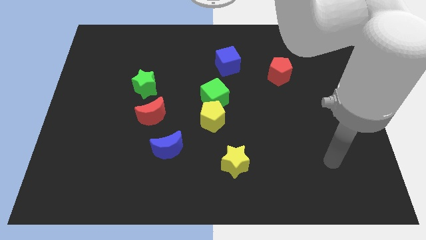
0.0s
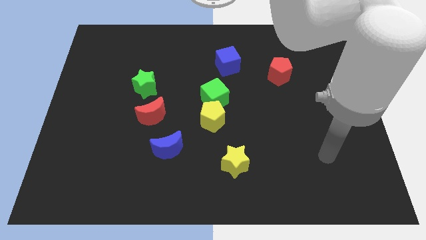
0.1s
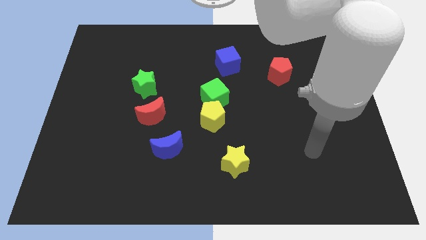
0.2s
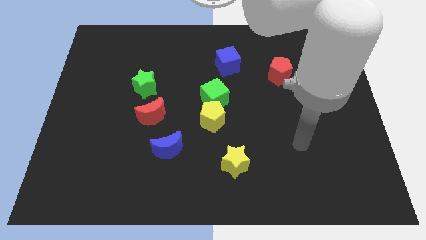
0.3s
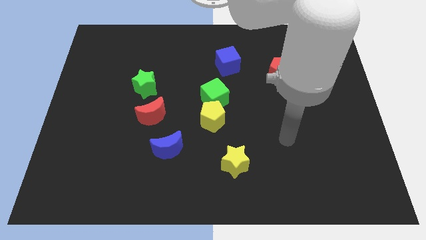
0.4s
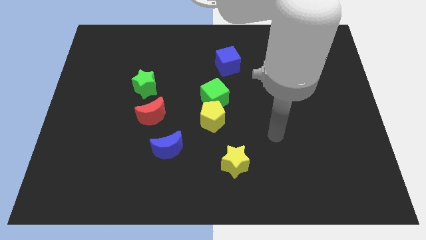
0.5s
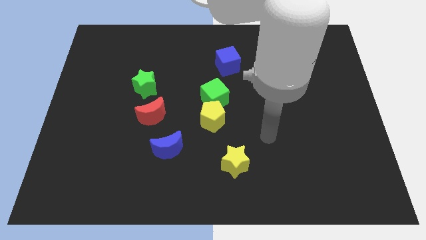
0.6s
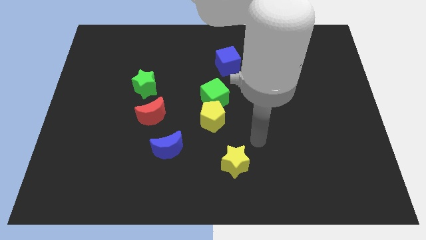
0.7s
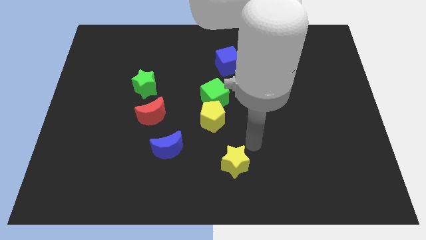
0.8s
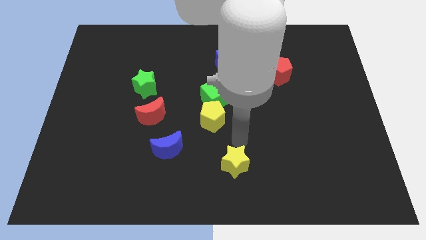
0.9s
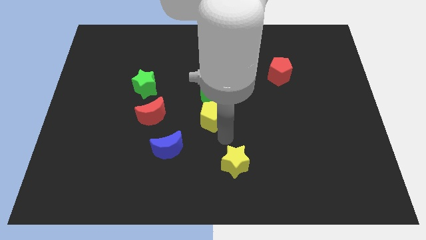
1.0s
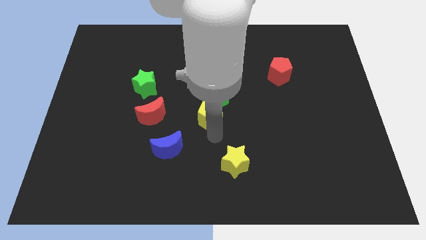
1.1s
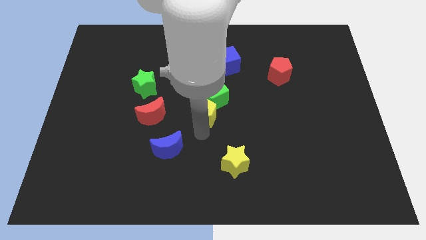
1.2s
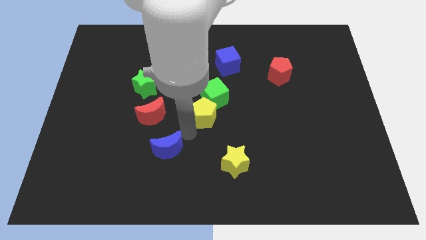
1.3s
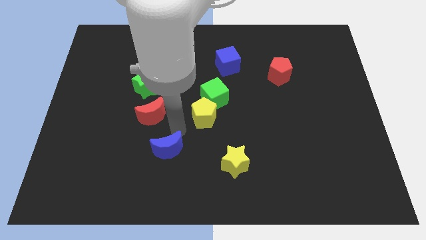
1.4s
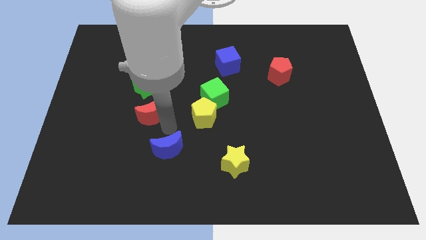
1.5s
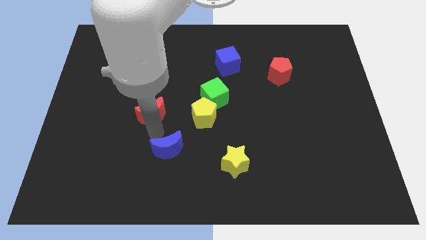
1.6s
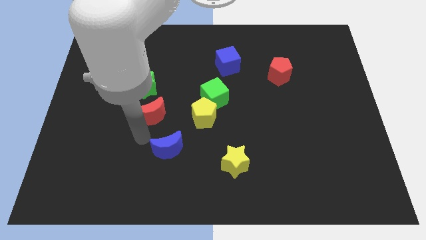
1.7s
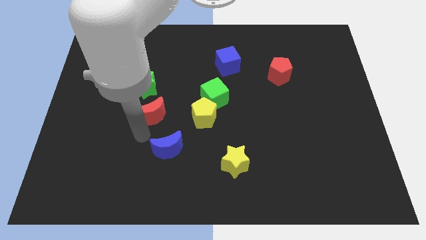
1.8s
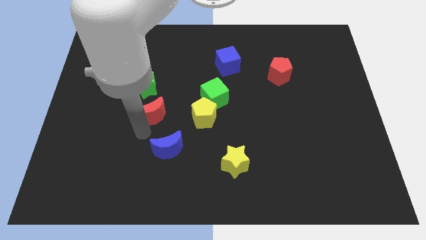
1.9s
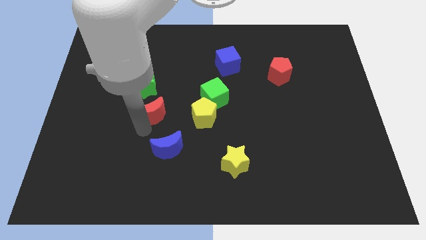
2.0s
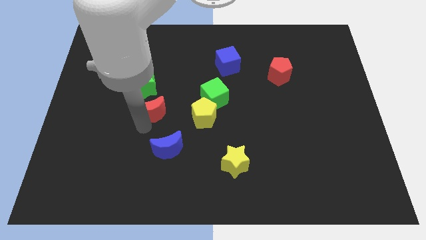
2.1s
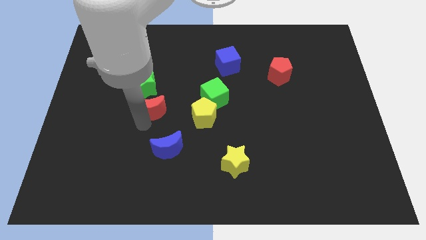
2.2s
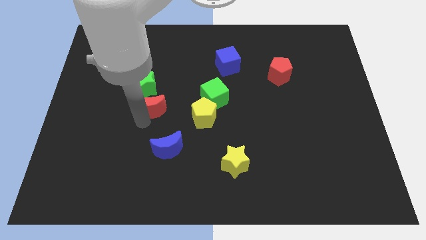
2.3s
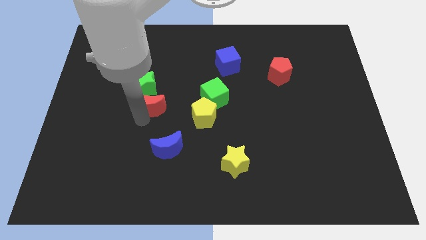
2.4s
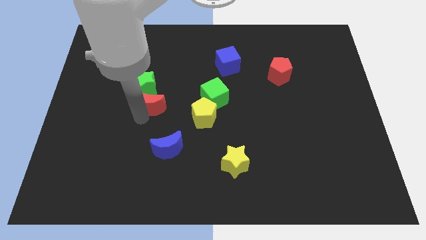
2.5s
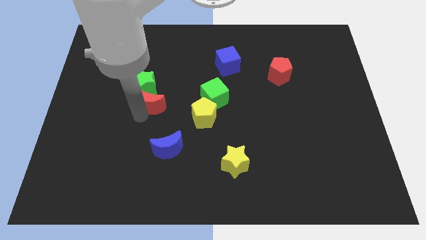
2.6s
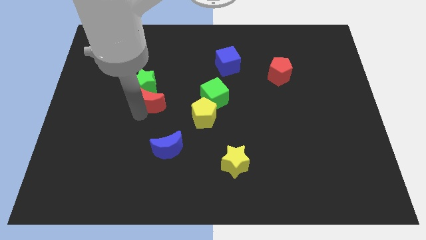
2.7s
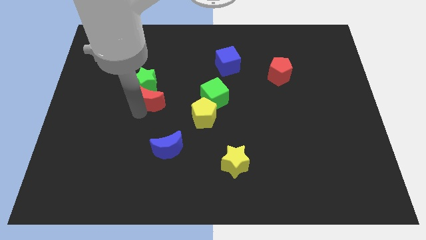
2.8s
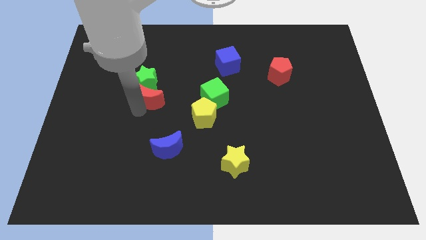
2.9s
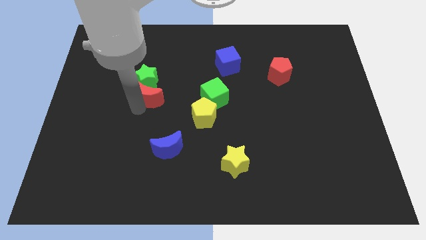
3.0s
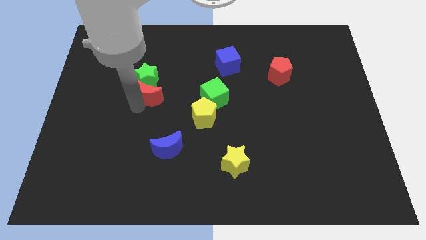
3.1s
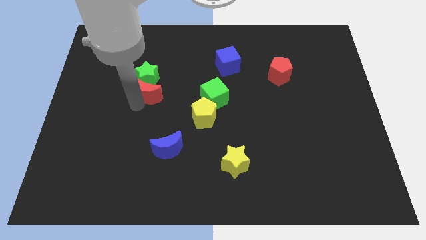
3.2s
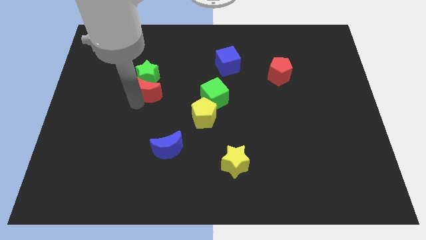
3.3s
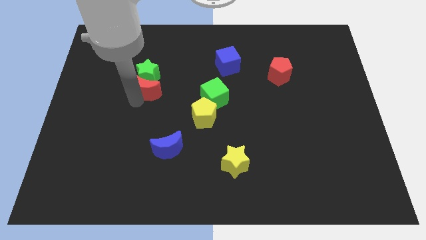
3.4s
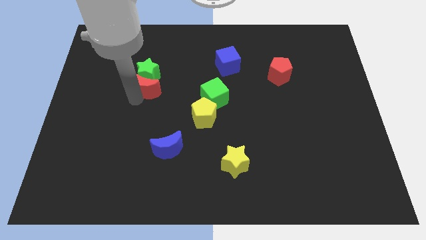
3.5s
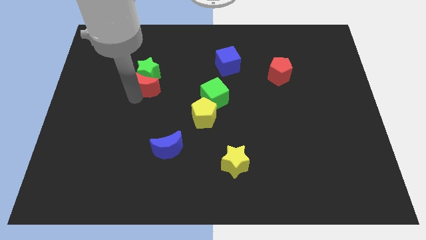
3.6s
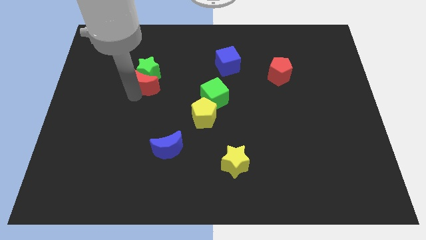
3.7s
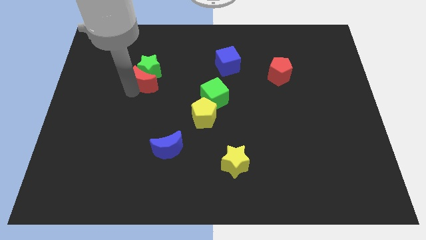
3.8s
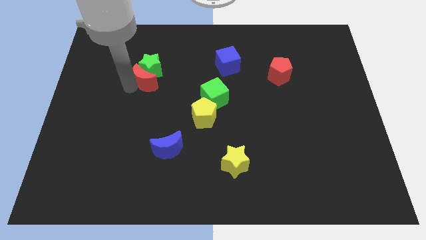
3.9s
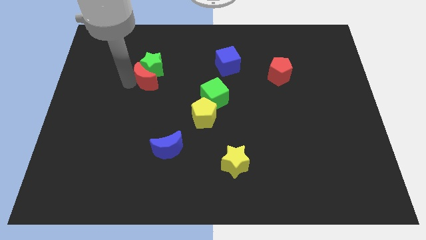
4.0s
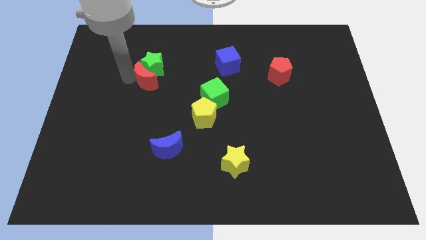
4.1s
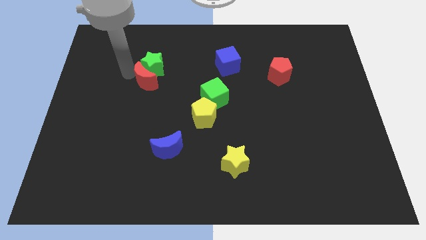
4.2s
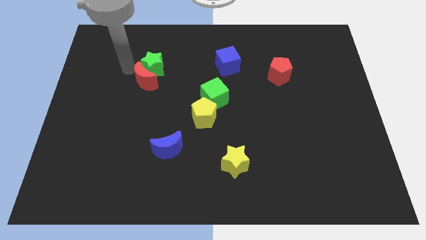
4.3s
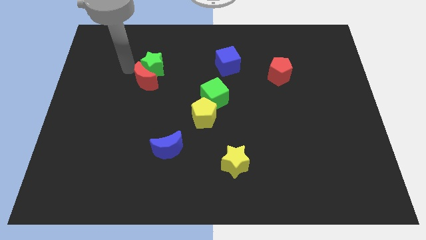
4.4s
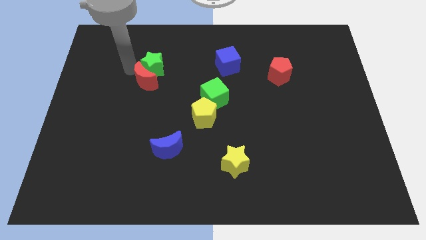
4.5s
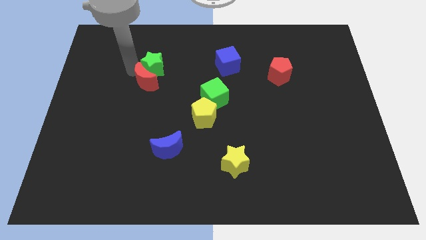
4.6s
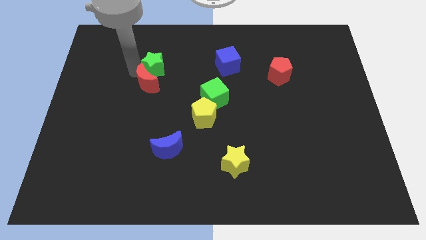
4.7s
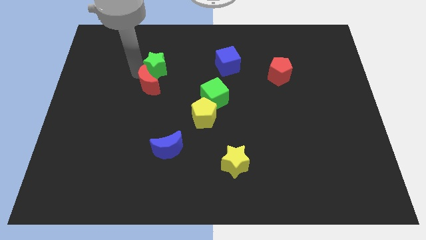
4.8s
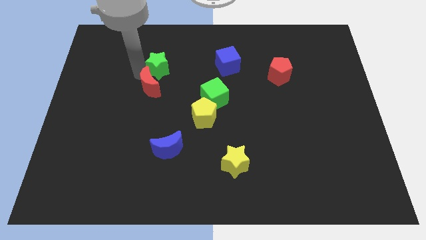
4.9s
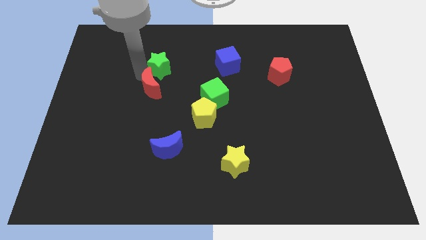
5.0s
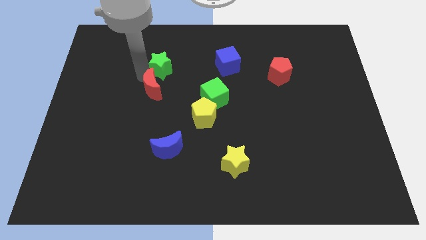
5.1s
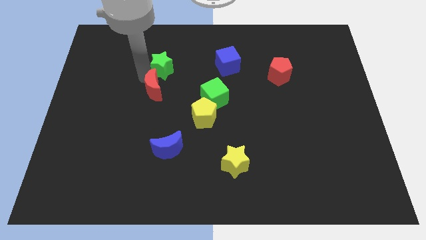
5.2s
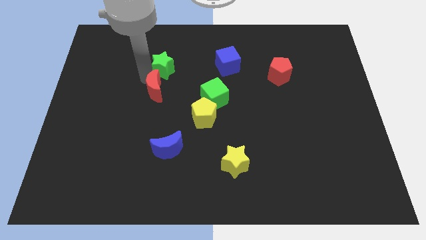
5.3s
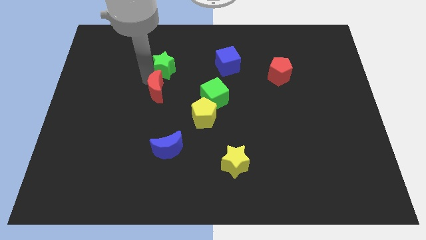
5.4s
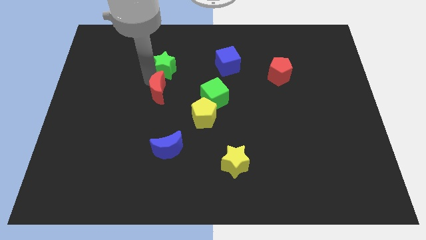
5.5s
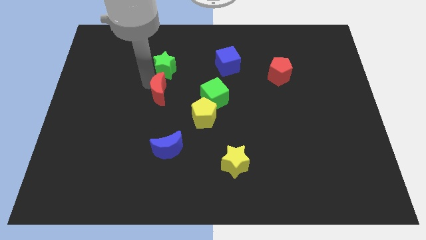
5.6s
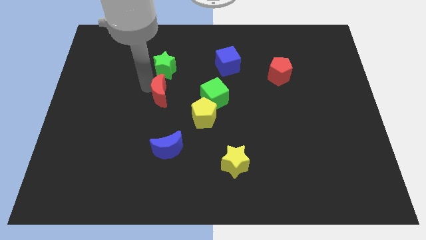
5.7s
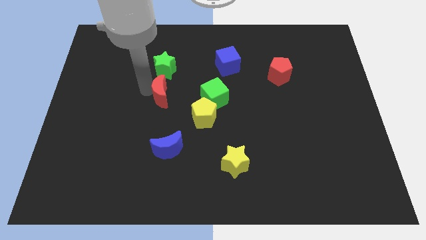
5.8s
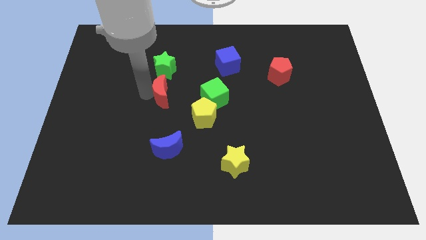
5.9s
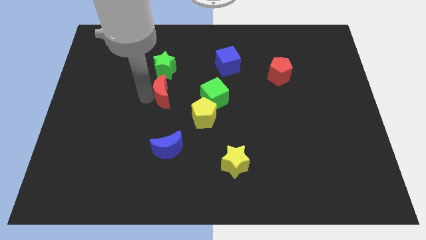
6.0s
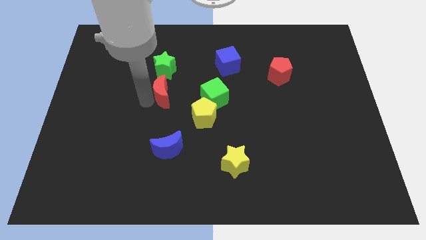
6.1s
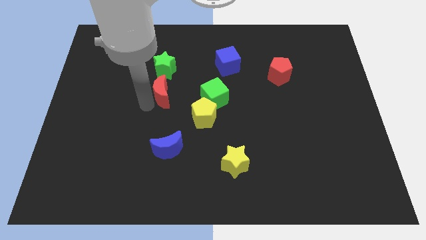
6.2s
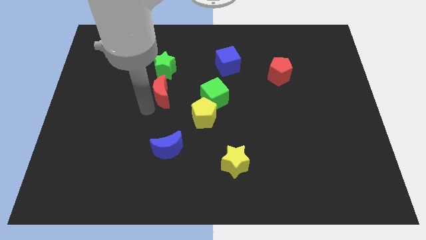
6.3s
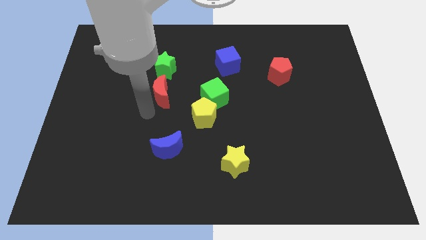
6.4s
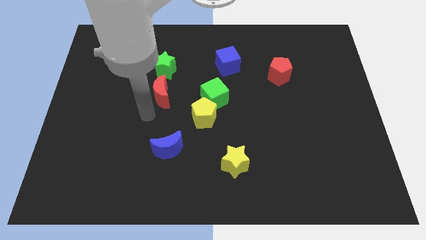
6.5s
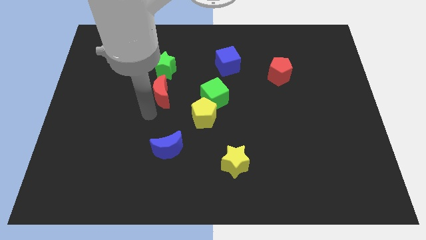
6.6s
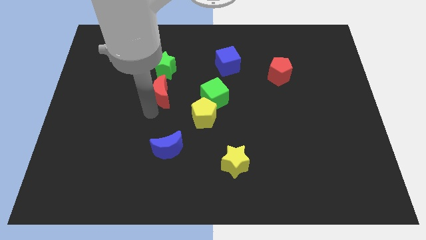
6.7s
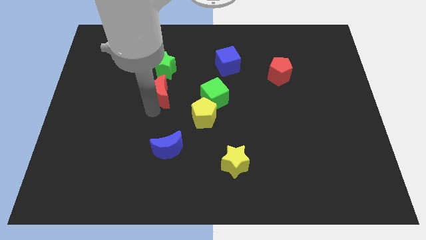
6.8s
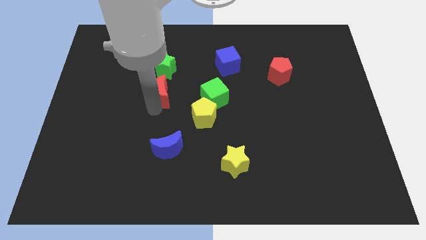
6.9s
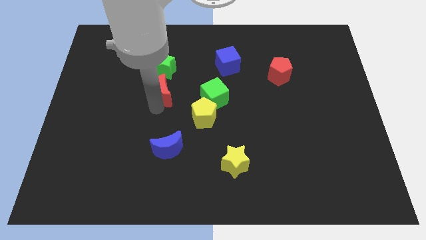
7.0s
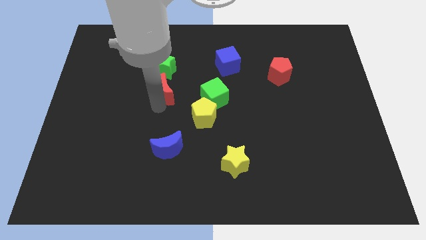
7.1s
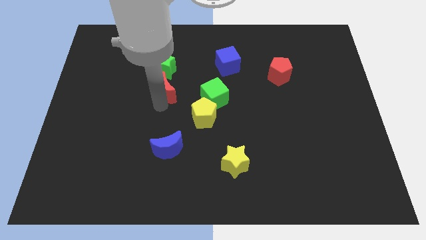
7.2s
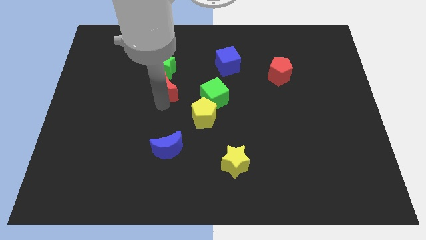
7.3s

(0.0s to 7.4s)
slide the red moon a little bit diagonally upwards and right

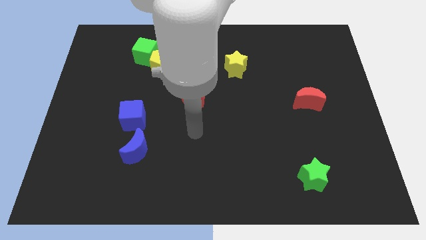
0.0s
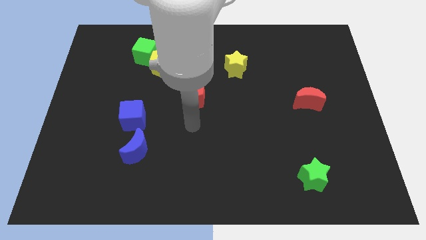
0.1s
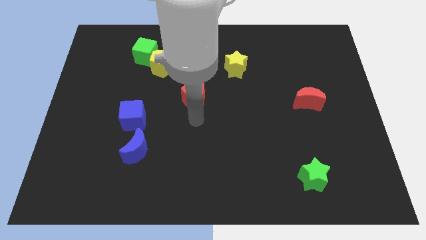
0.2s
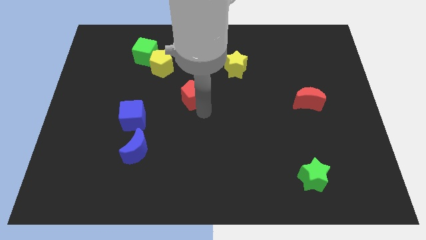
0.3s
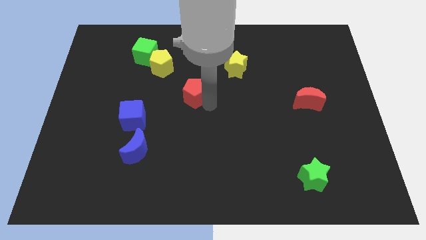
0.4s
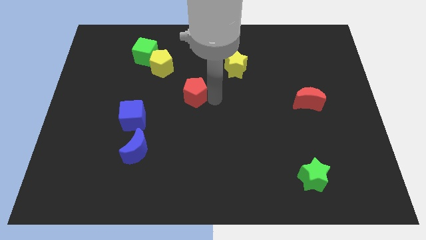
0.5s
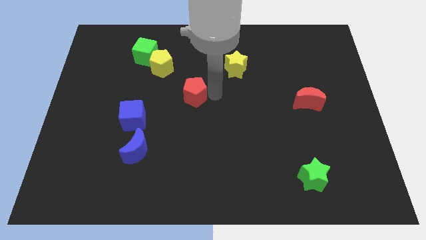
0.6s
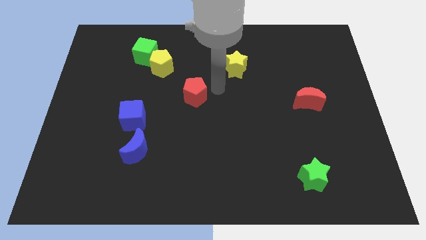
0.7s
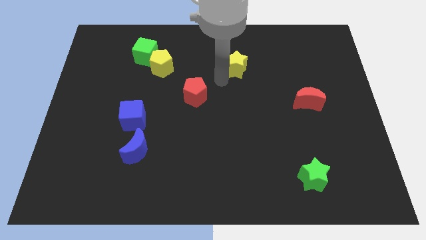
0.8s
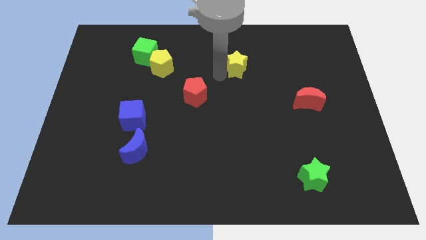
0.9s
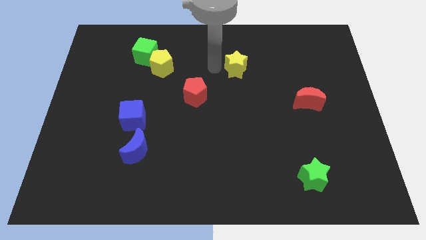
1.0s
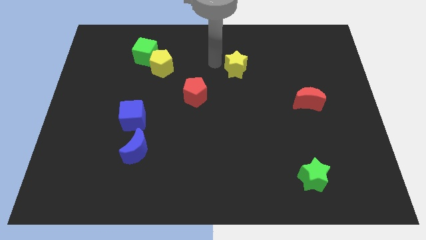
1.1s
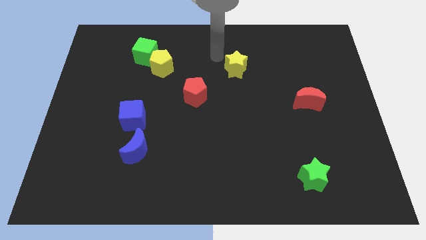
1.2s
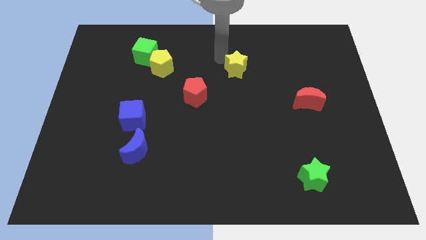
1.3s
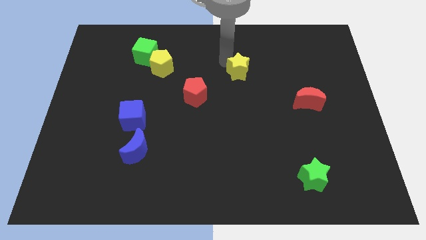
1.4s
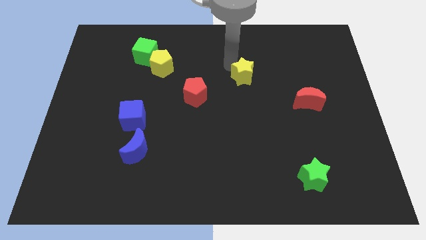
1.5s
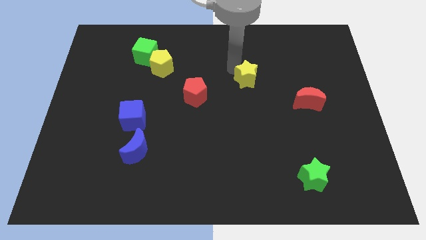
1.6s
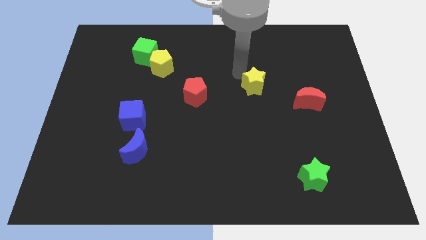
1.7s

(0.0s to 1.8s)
slightly push the yellow star downwards and to the right diagonally
